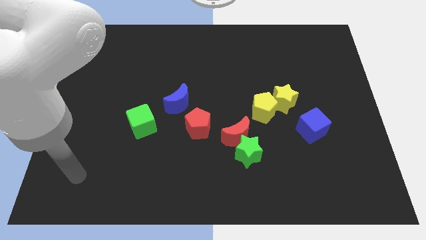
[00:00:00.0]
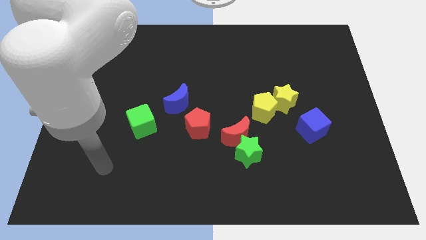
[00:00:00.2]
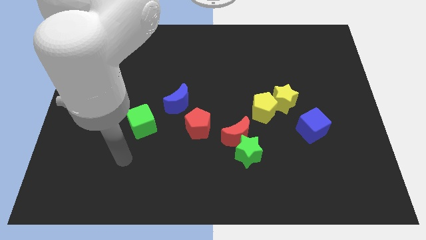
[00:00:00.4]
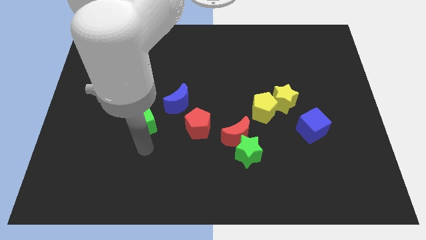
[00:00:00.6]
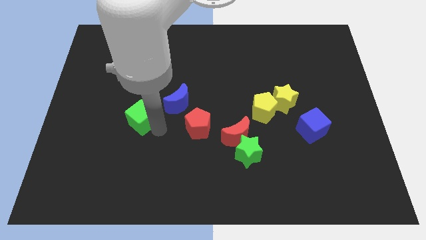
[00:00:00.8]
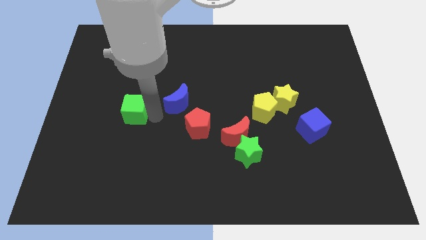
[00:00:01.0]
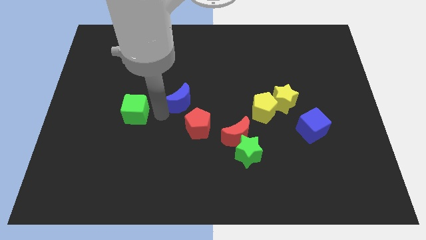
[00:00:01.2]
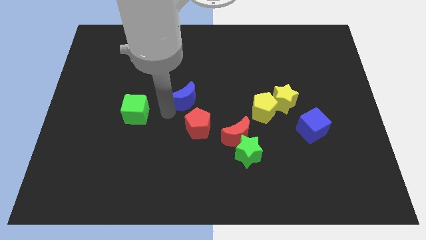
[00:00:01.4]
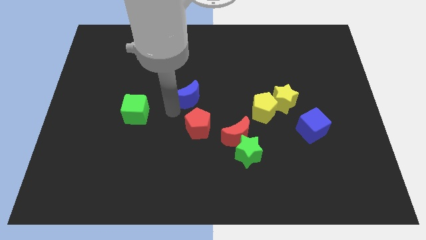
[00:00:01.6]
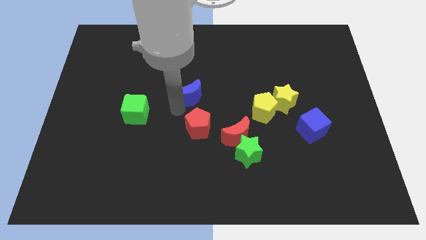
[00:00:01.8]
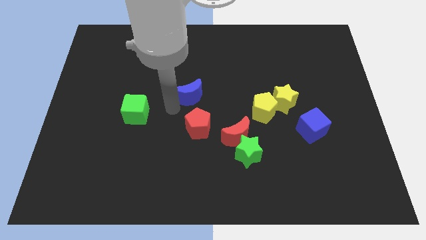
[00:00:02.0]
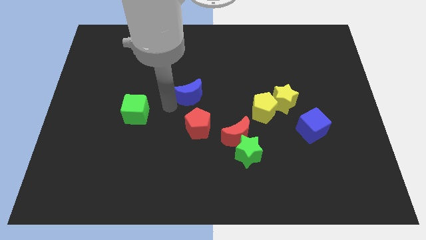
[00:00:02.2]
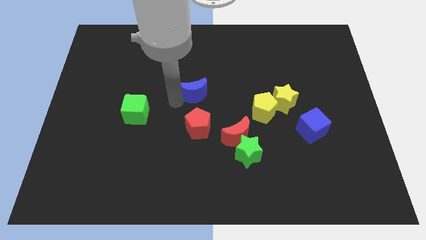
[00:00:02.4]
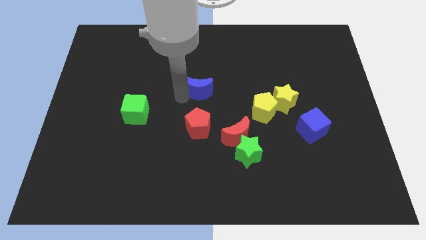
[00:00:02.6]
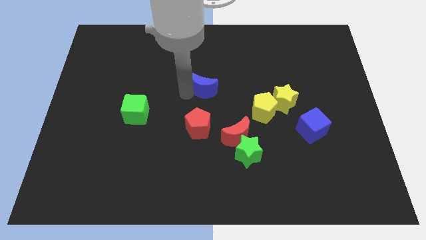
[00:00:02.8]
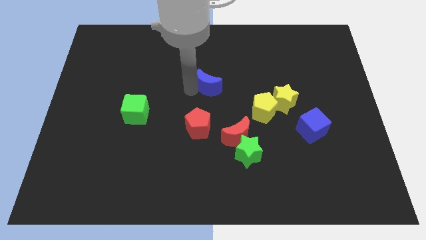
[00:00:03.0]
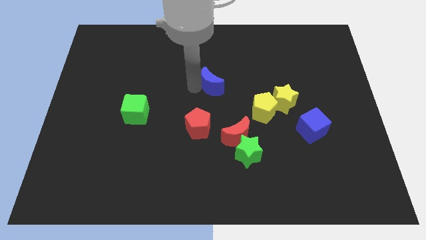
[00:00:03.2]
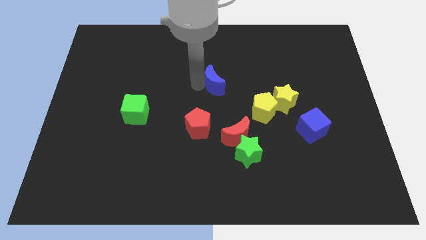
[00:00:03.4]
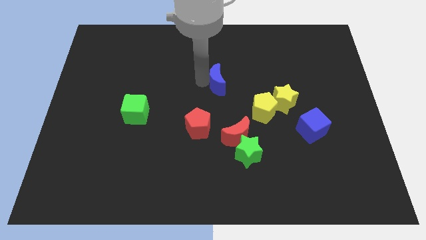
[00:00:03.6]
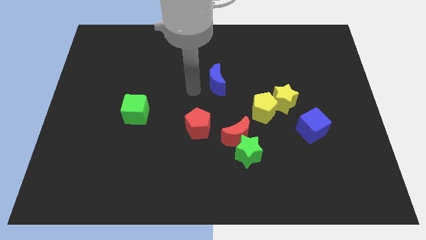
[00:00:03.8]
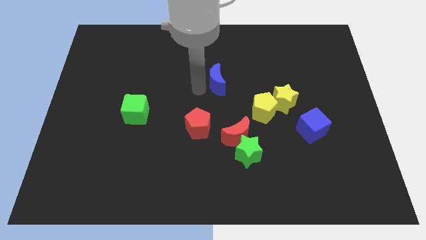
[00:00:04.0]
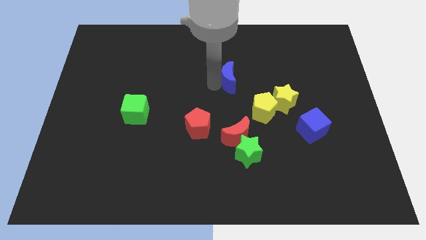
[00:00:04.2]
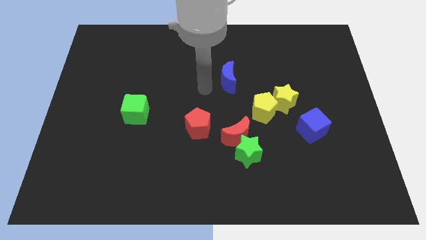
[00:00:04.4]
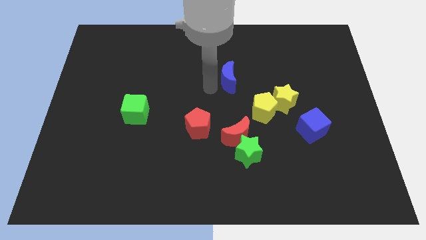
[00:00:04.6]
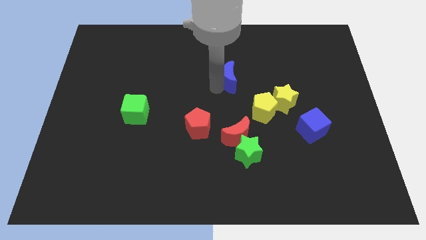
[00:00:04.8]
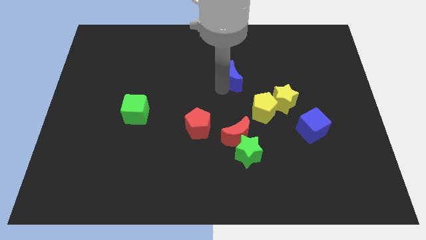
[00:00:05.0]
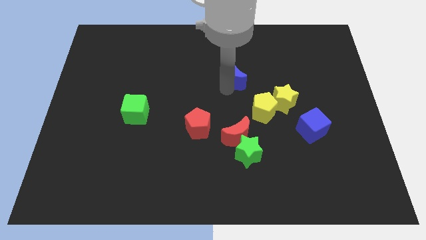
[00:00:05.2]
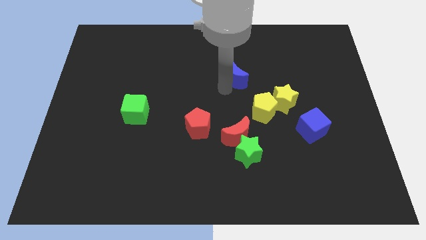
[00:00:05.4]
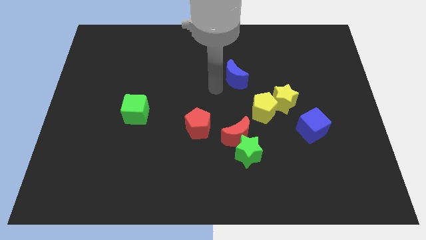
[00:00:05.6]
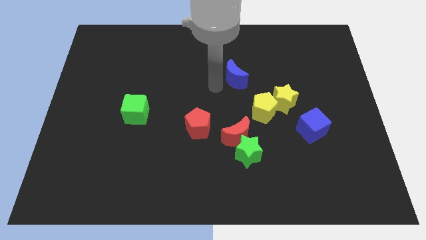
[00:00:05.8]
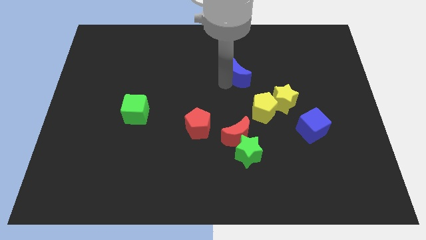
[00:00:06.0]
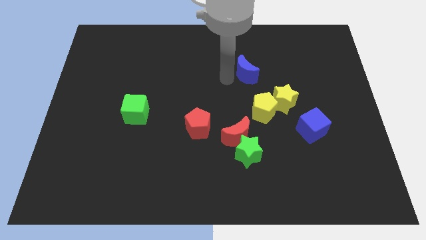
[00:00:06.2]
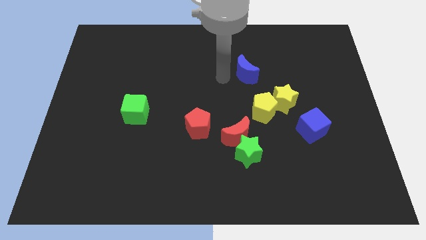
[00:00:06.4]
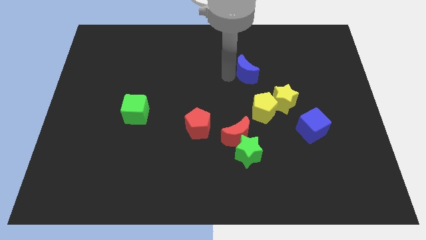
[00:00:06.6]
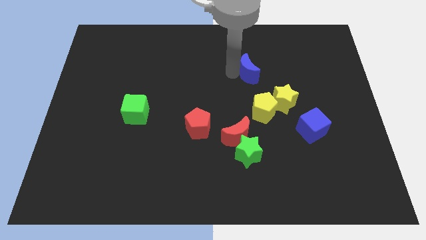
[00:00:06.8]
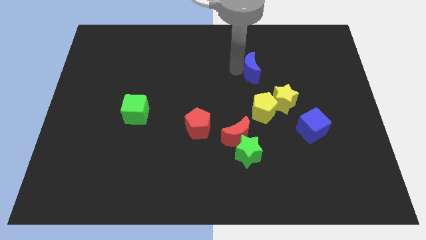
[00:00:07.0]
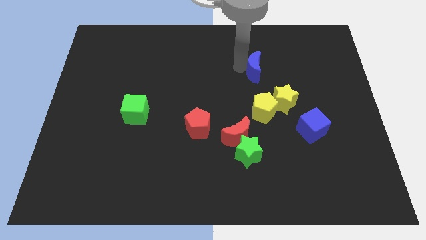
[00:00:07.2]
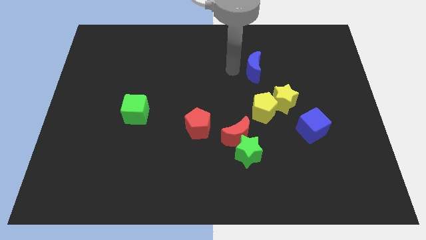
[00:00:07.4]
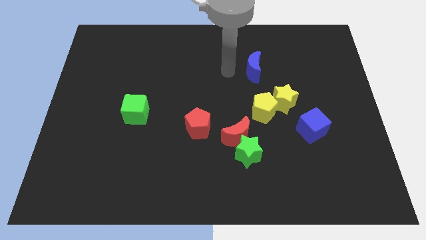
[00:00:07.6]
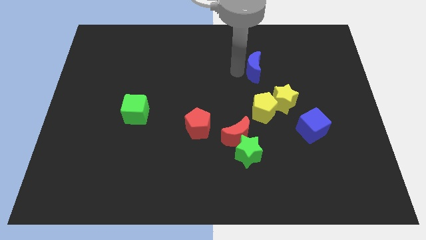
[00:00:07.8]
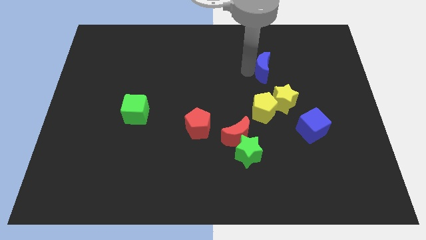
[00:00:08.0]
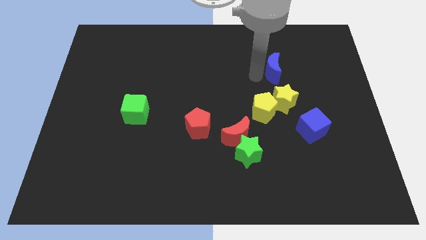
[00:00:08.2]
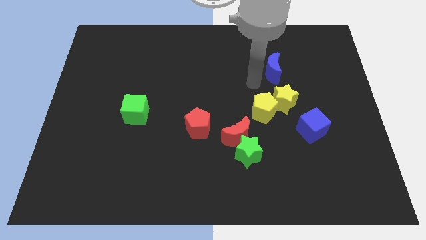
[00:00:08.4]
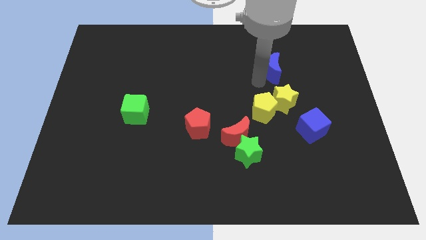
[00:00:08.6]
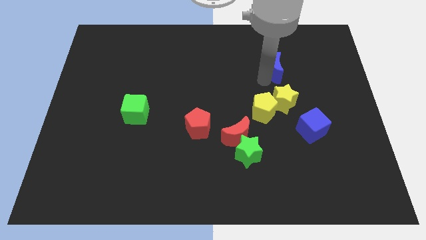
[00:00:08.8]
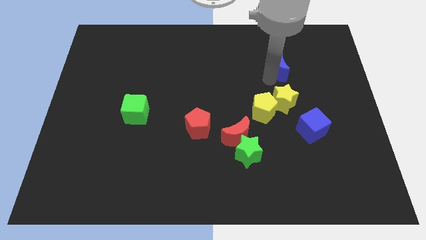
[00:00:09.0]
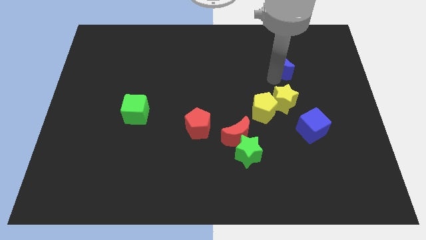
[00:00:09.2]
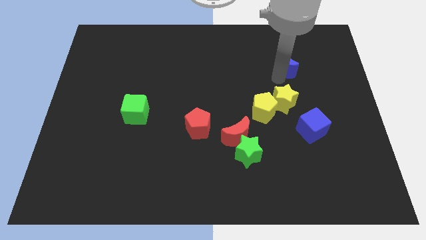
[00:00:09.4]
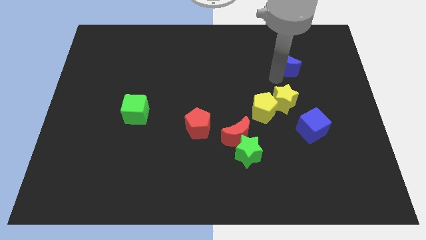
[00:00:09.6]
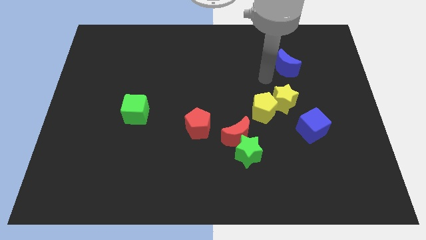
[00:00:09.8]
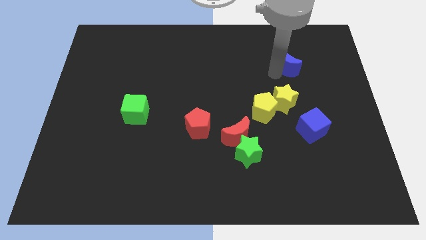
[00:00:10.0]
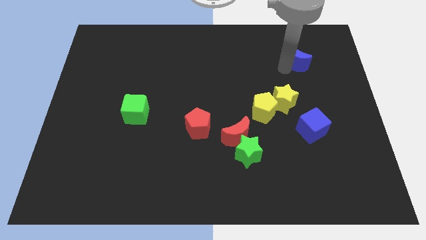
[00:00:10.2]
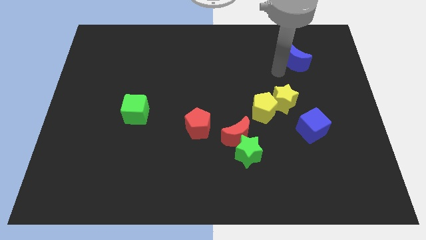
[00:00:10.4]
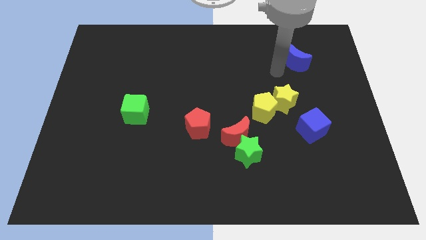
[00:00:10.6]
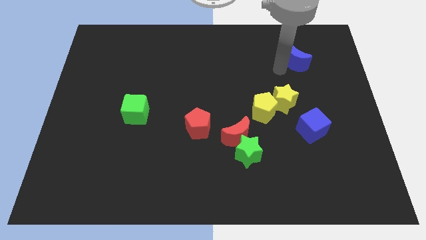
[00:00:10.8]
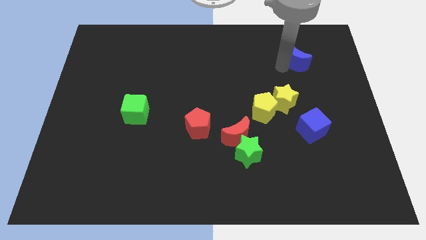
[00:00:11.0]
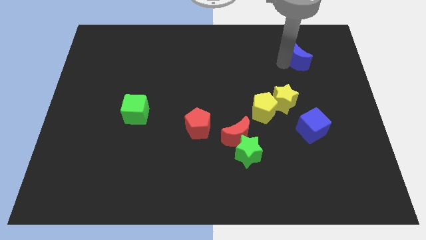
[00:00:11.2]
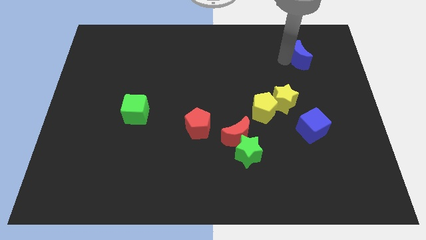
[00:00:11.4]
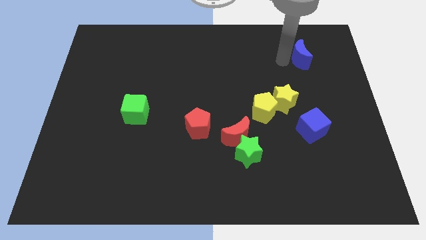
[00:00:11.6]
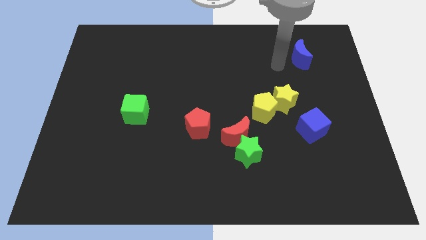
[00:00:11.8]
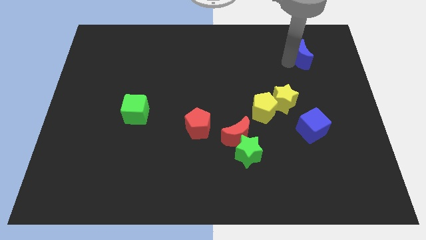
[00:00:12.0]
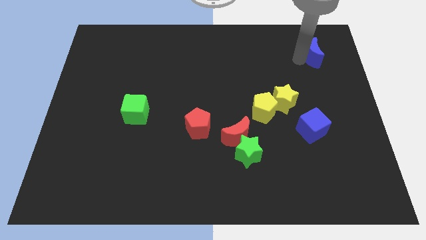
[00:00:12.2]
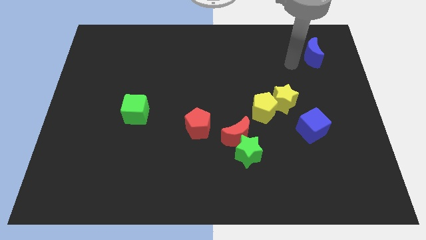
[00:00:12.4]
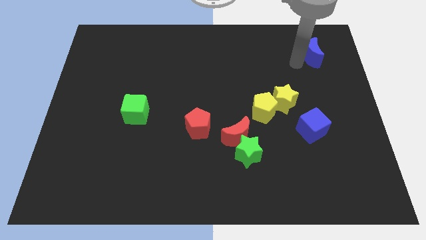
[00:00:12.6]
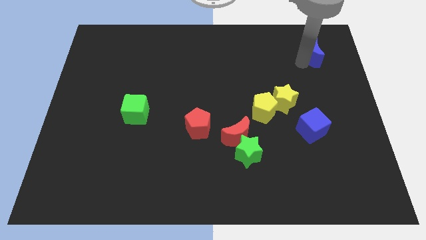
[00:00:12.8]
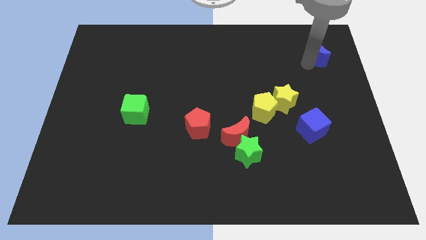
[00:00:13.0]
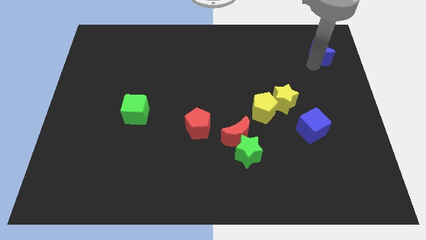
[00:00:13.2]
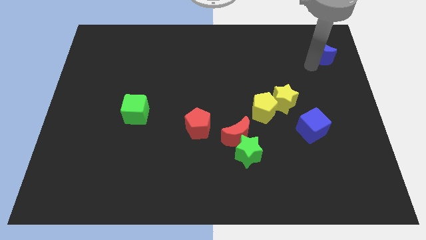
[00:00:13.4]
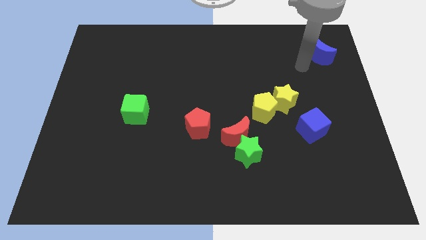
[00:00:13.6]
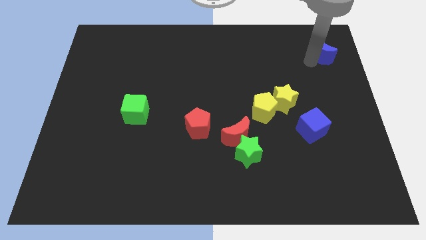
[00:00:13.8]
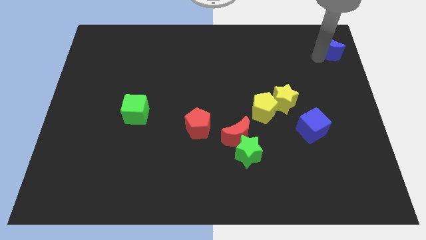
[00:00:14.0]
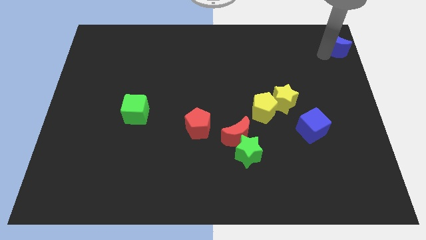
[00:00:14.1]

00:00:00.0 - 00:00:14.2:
put the blue moon to the top right of the board
